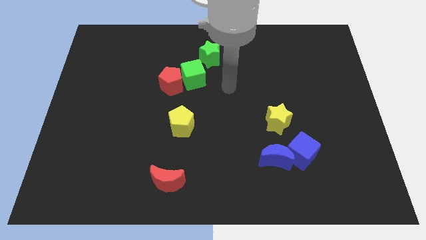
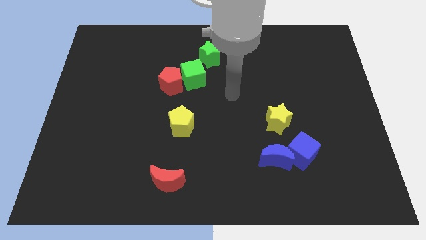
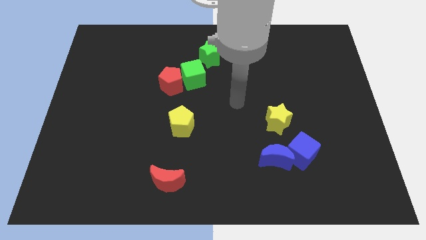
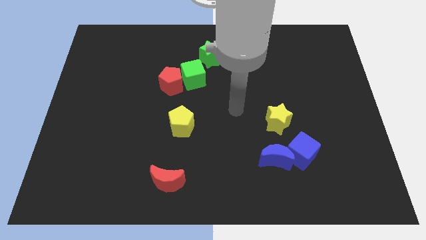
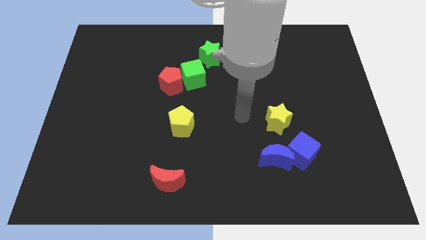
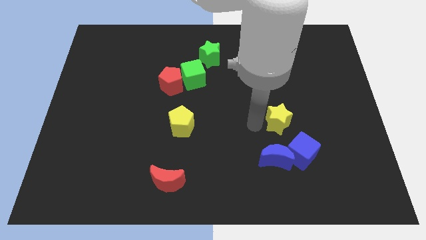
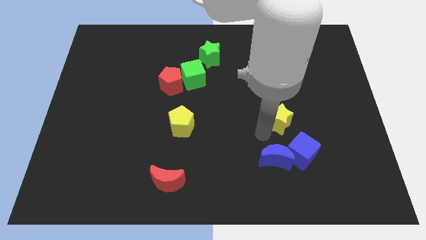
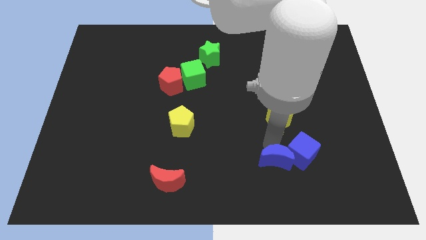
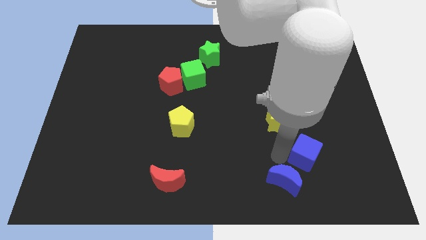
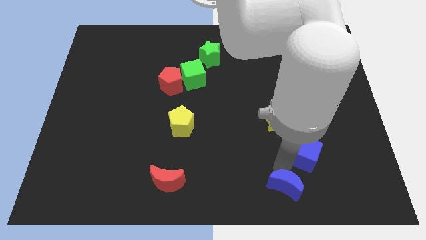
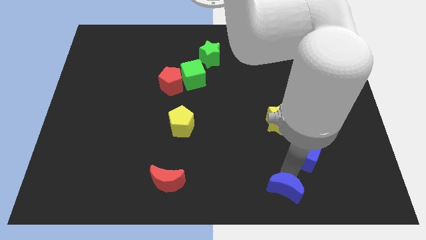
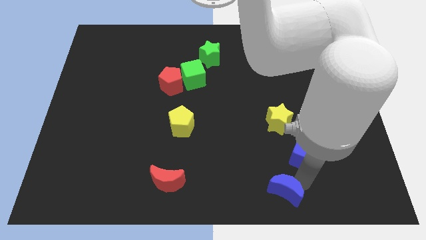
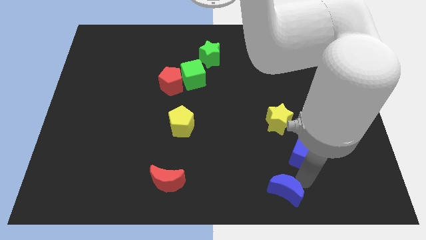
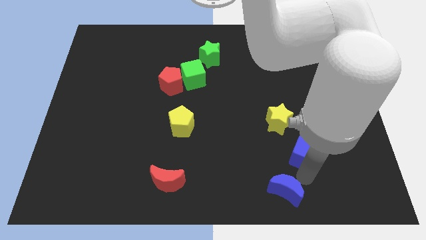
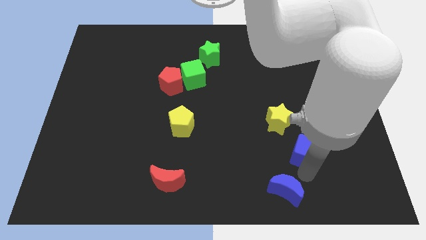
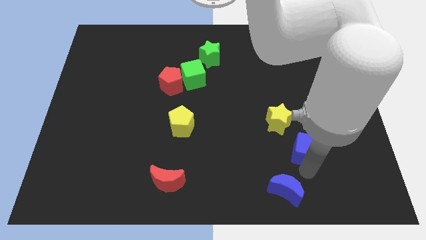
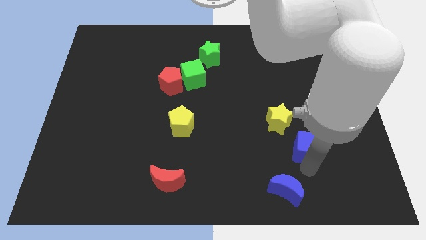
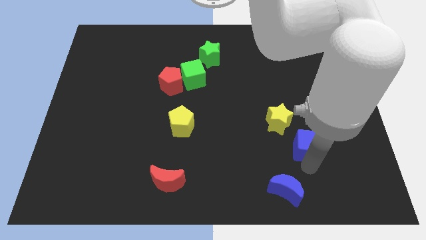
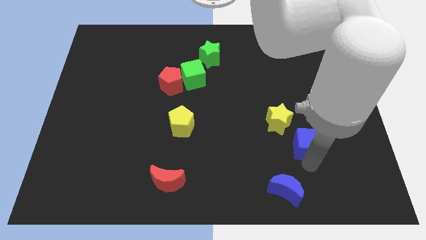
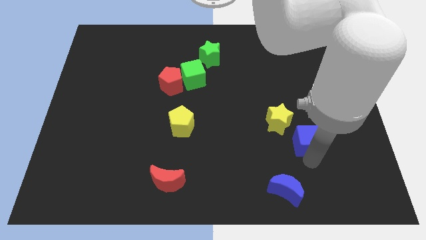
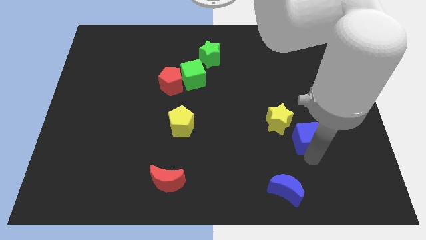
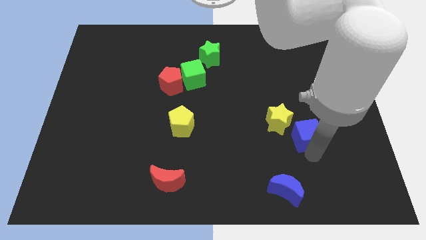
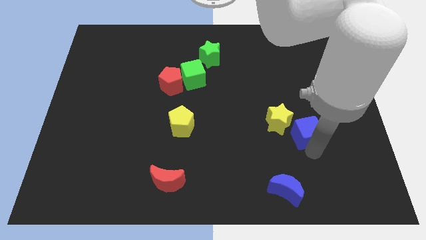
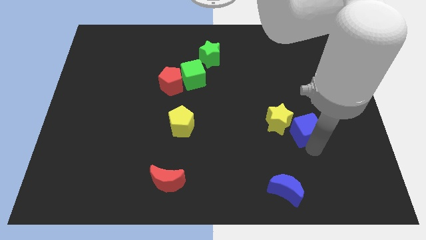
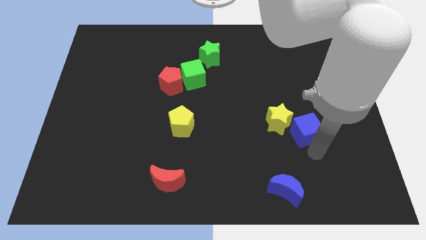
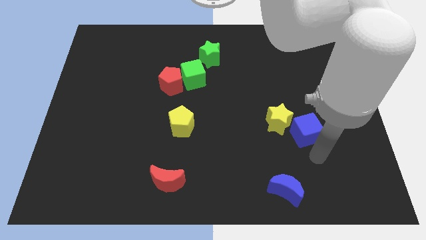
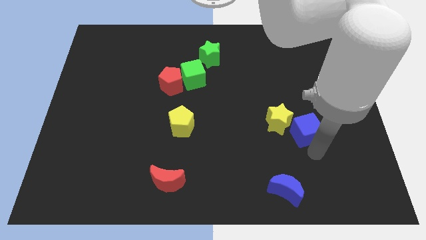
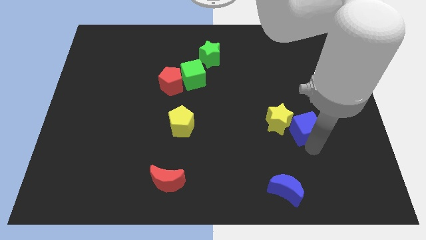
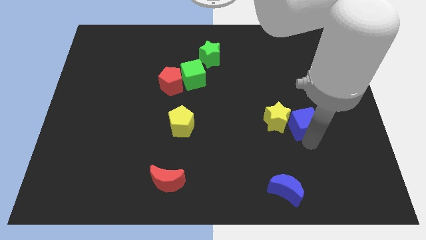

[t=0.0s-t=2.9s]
slide the blue cube a little bit upwards

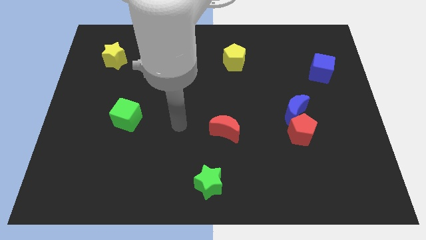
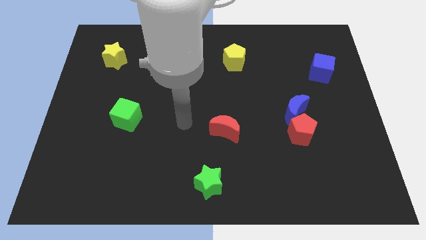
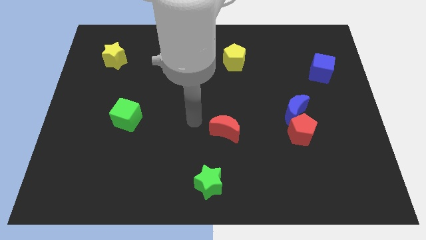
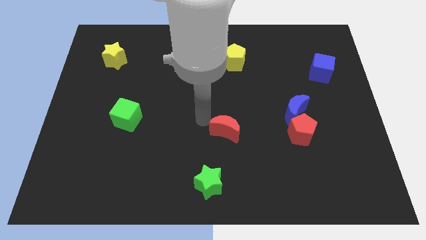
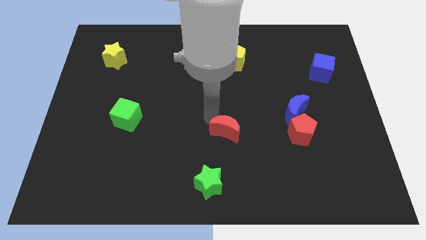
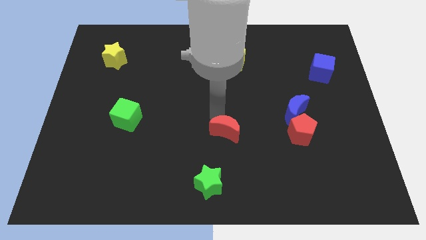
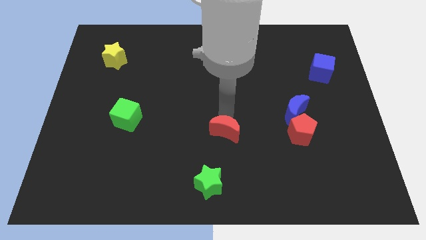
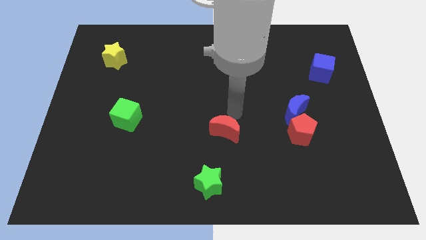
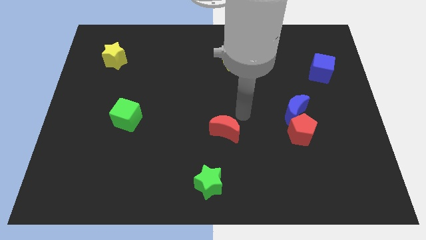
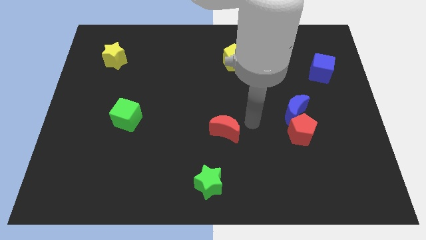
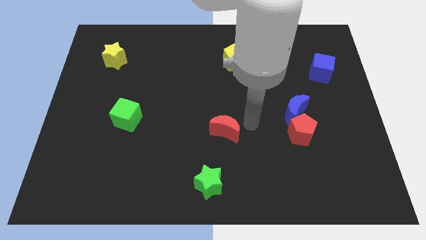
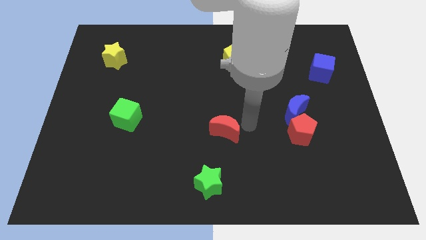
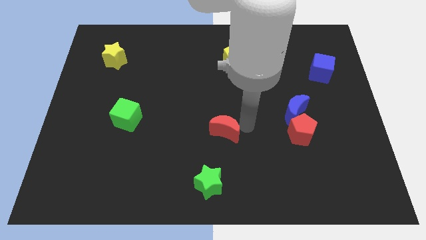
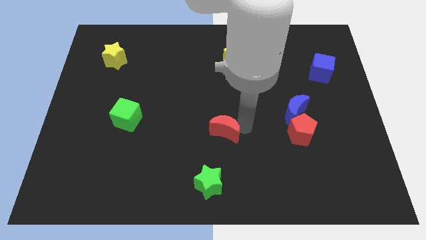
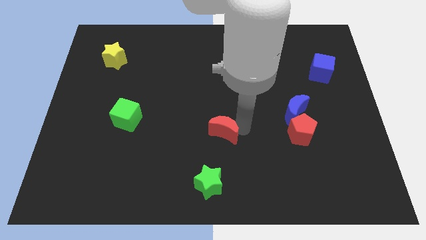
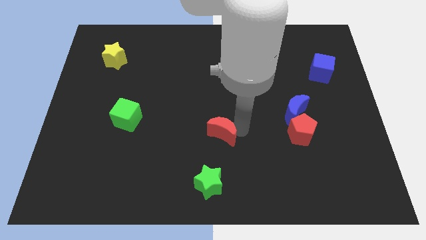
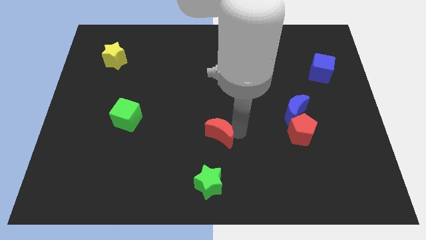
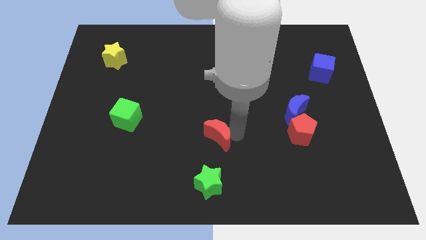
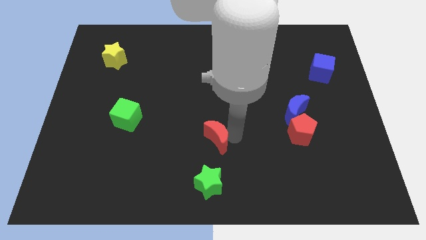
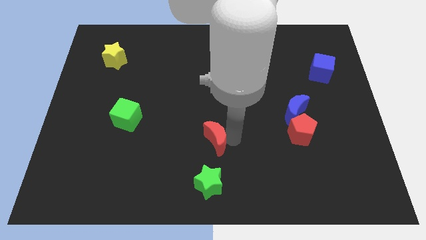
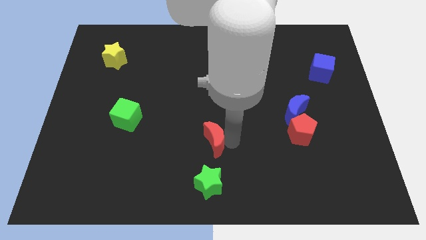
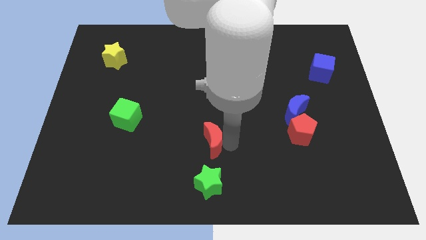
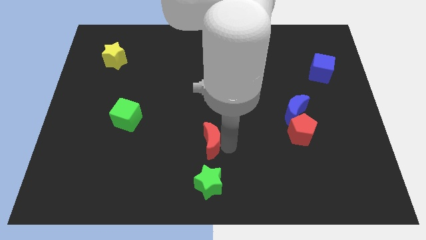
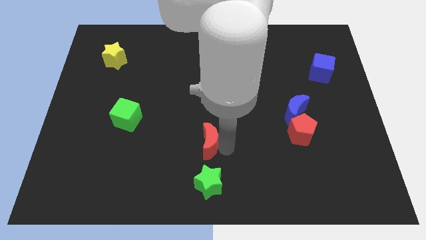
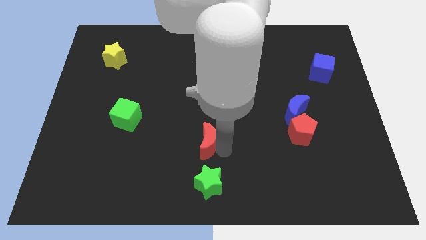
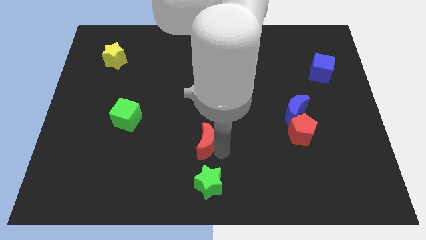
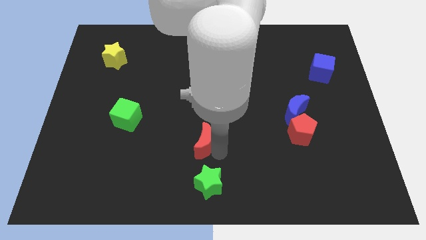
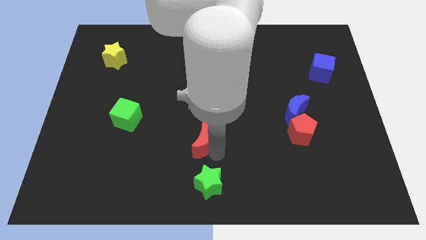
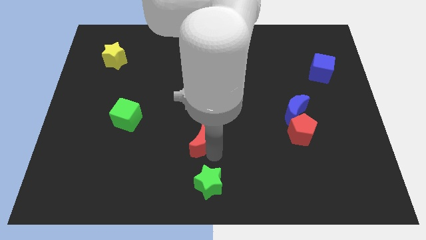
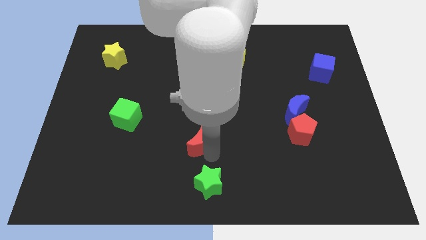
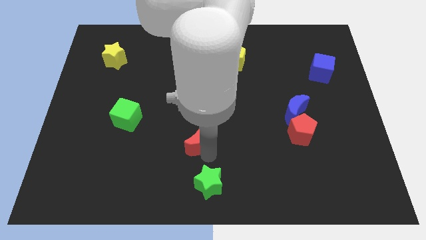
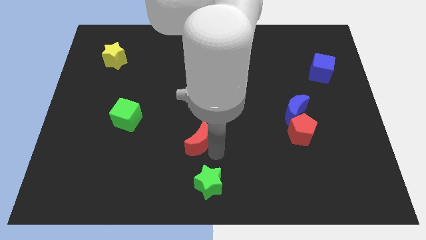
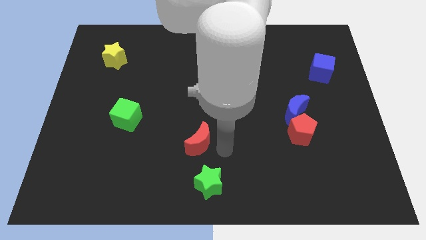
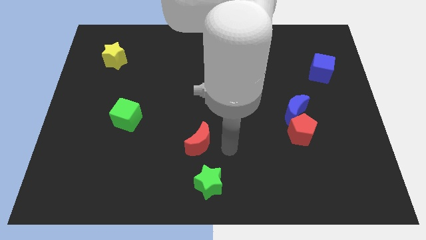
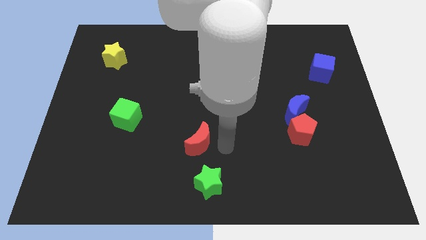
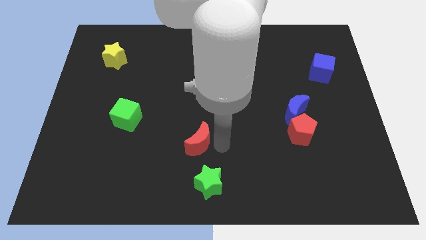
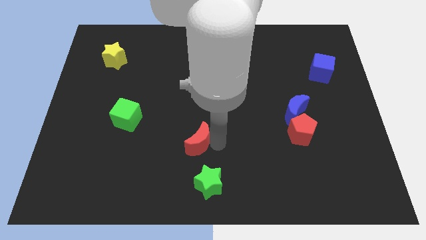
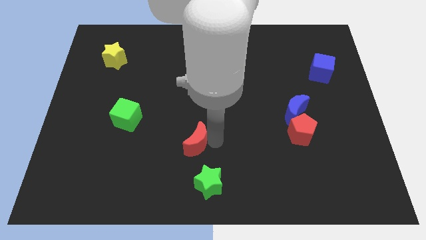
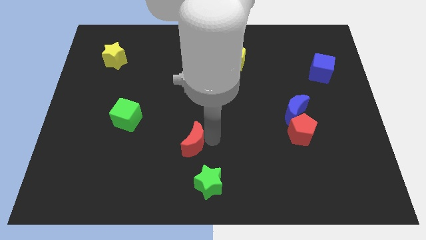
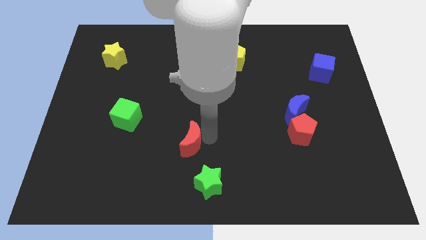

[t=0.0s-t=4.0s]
slide the red moon left a little

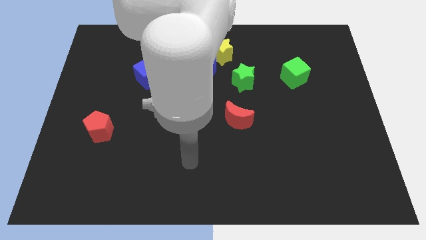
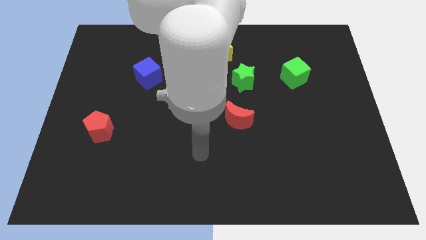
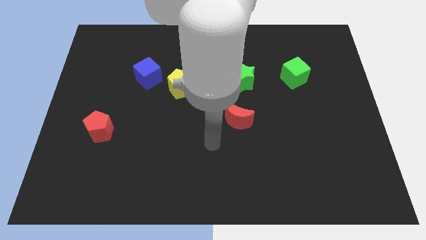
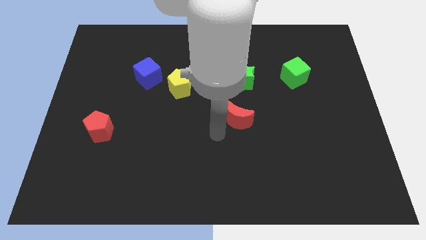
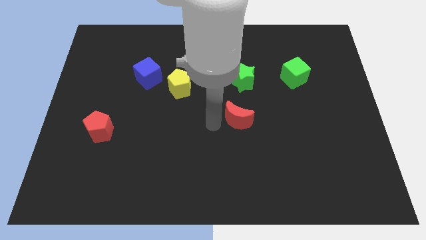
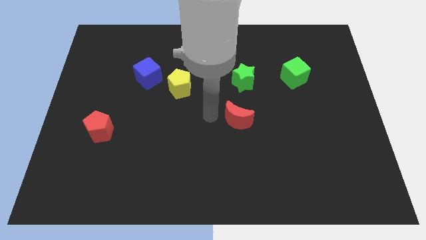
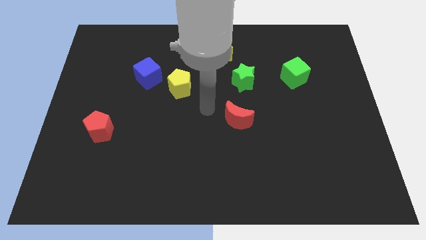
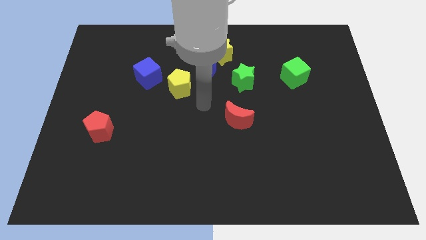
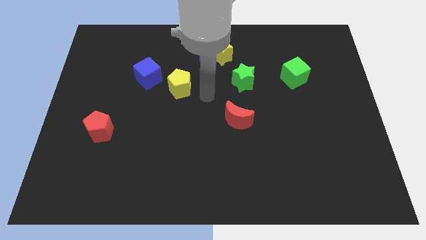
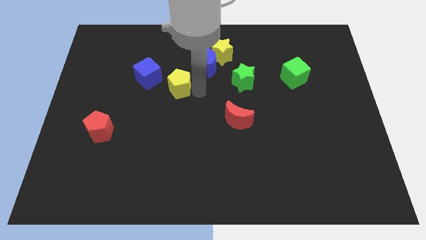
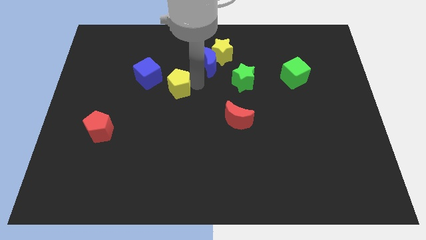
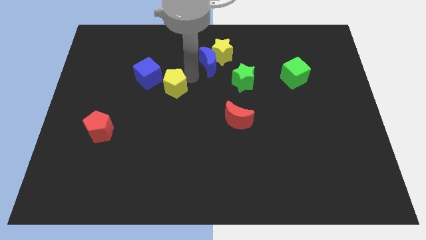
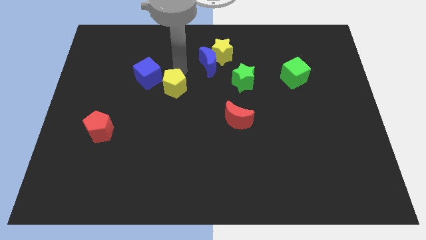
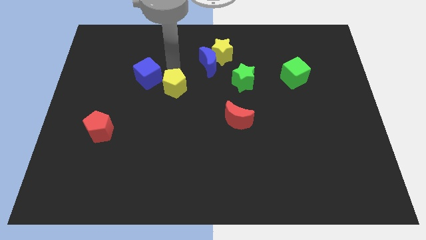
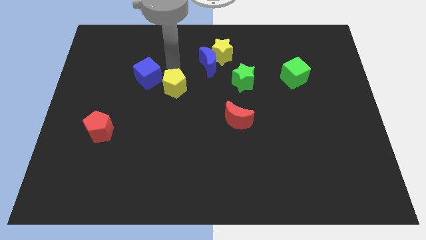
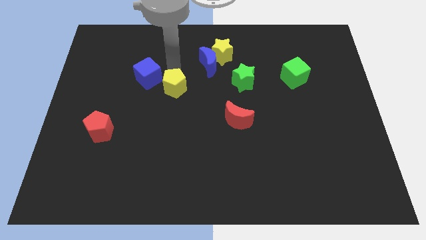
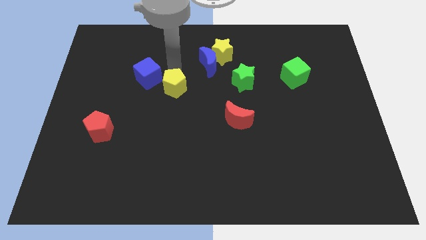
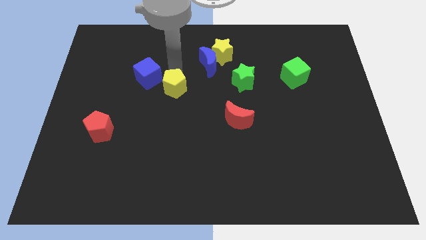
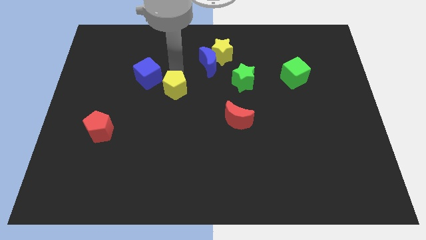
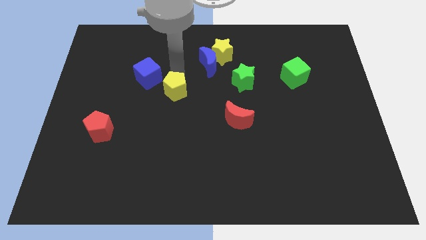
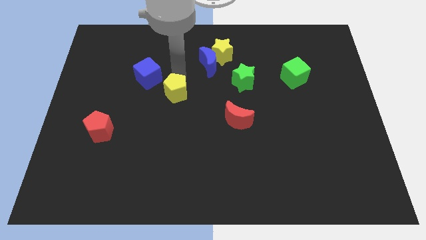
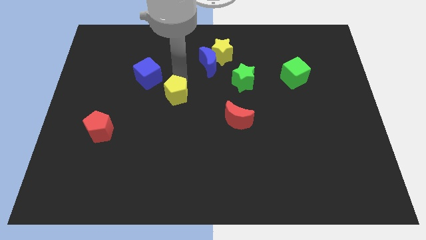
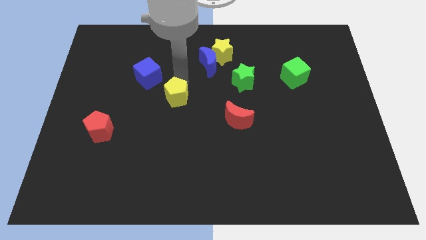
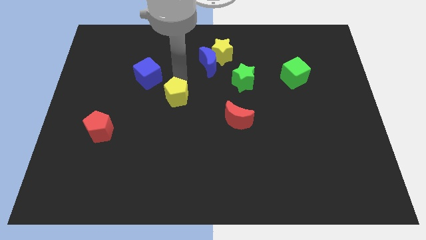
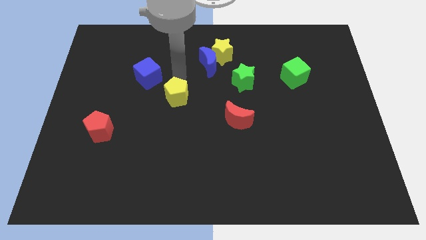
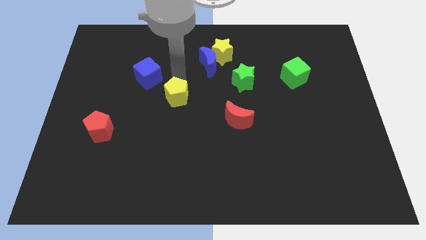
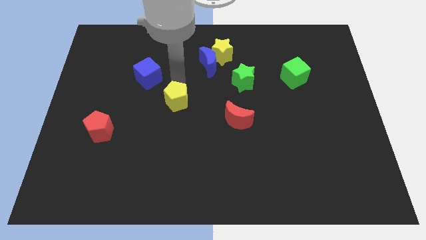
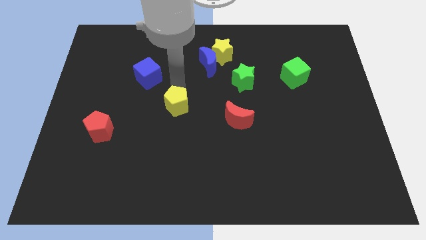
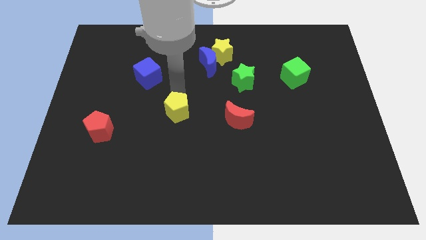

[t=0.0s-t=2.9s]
move the yellow pentagon downwards somewhat
